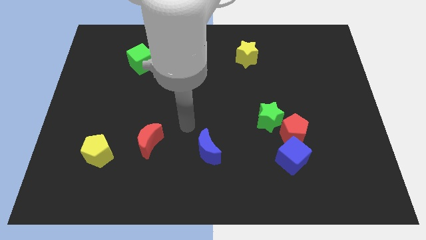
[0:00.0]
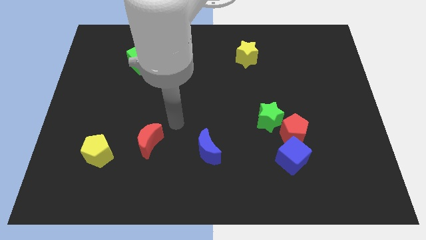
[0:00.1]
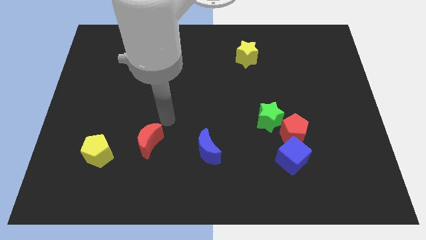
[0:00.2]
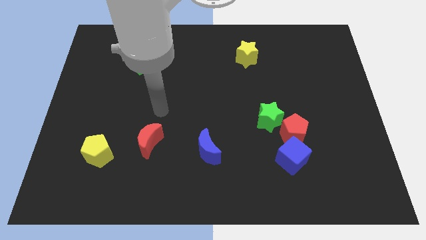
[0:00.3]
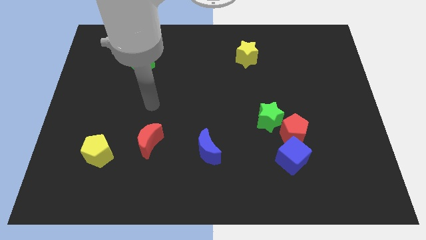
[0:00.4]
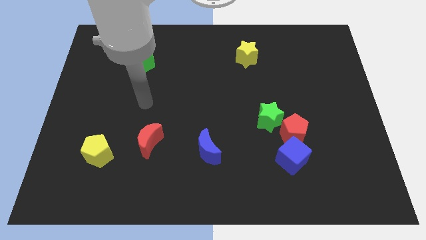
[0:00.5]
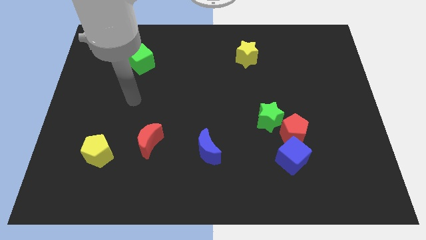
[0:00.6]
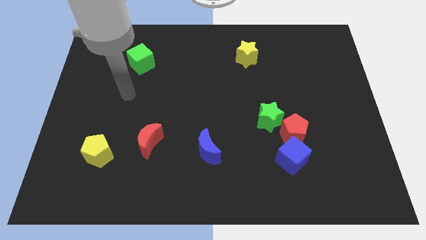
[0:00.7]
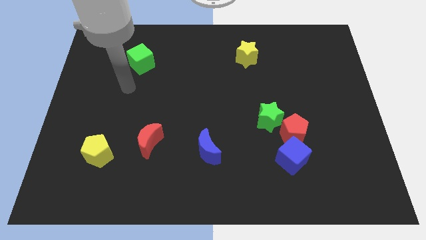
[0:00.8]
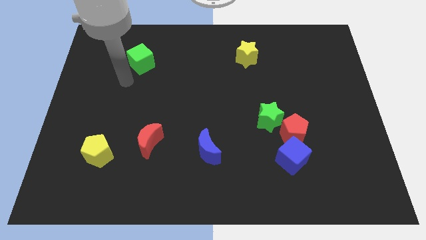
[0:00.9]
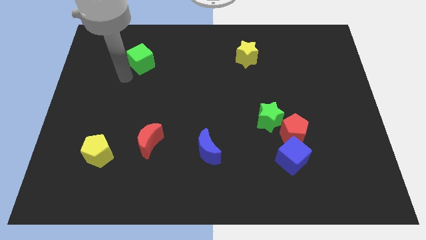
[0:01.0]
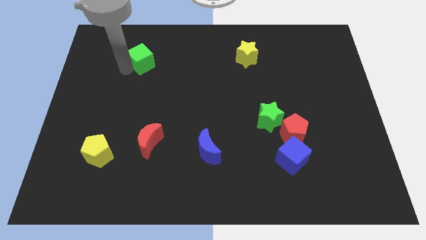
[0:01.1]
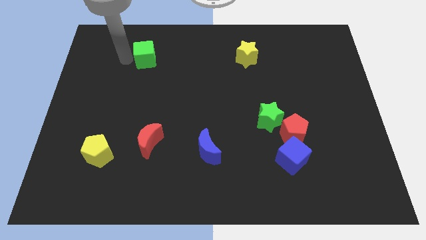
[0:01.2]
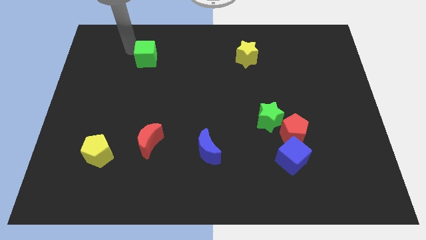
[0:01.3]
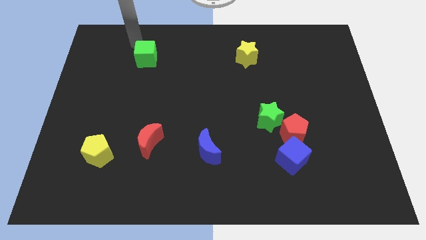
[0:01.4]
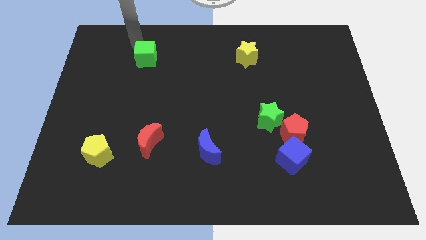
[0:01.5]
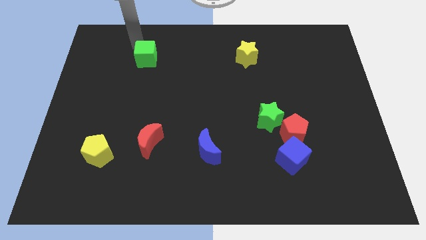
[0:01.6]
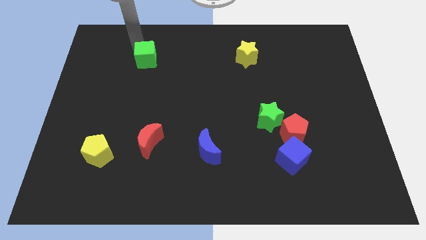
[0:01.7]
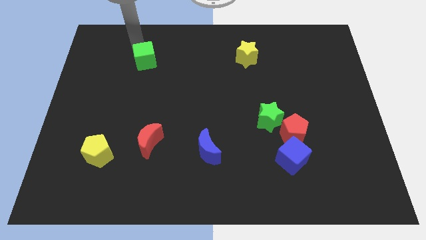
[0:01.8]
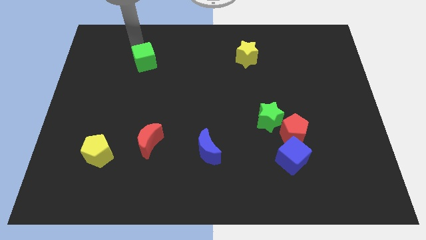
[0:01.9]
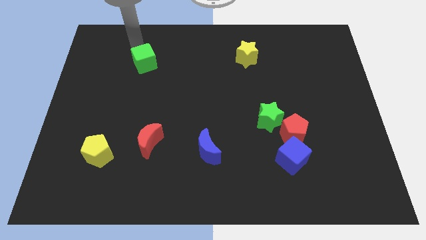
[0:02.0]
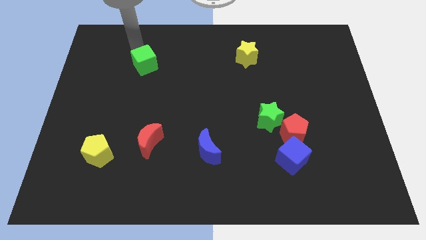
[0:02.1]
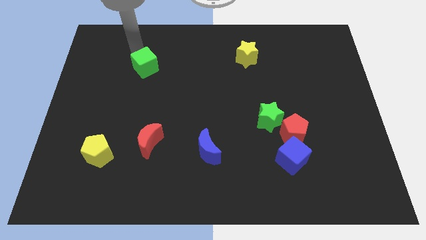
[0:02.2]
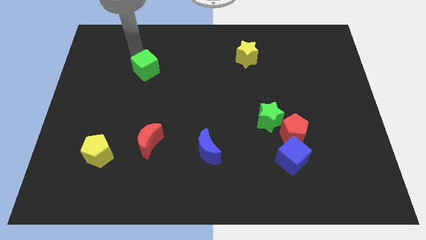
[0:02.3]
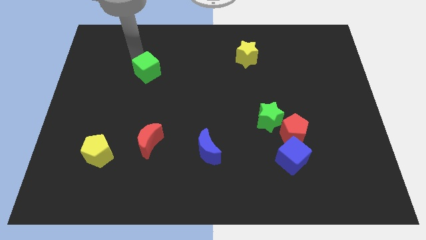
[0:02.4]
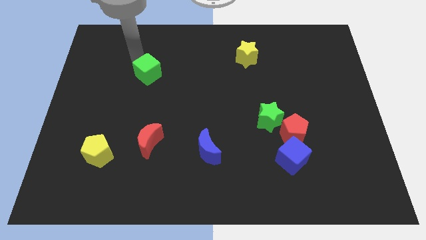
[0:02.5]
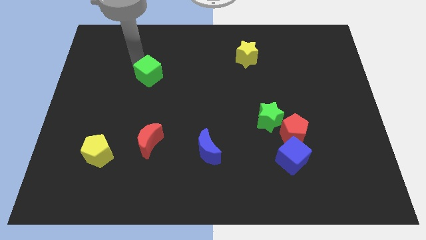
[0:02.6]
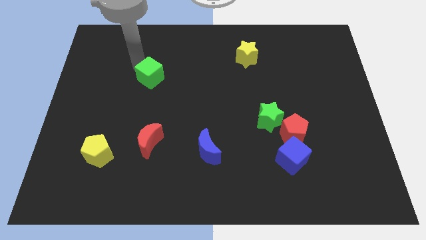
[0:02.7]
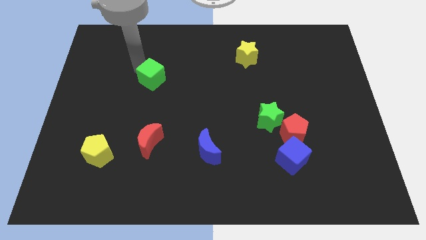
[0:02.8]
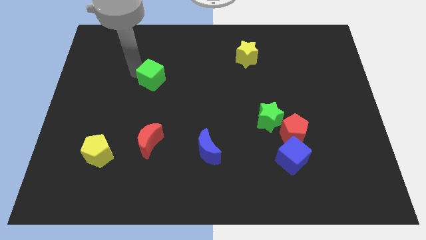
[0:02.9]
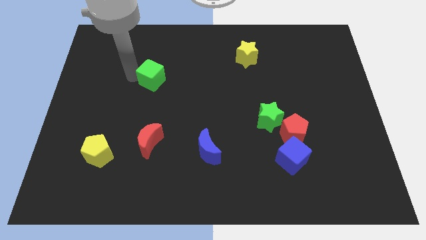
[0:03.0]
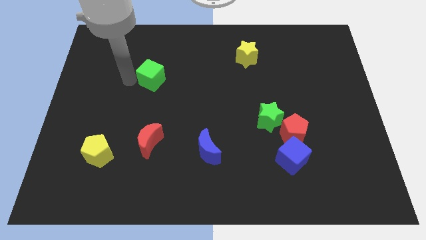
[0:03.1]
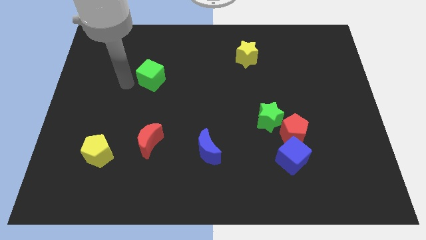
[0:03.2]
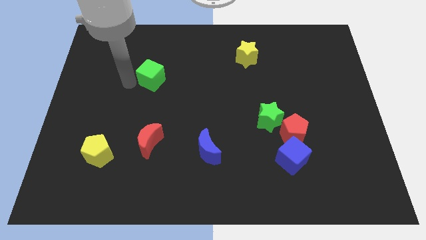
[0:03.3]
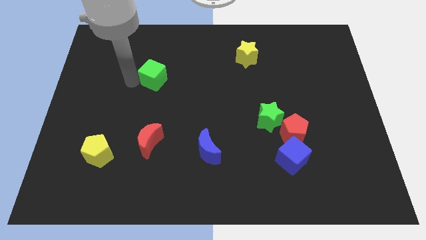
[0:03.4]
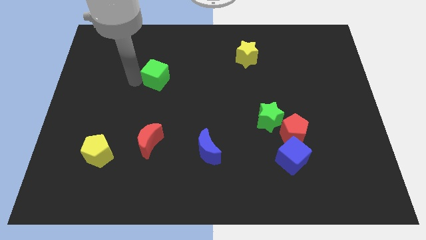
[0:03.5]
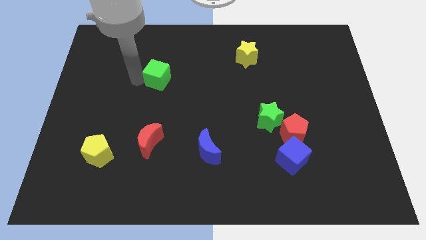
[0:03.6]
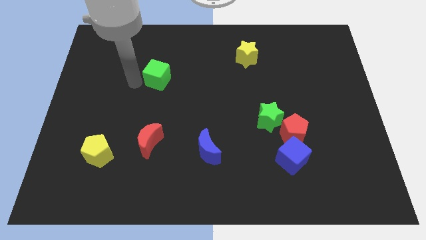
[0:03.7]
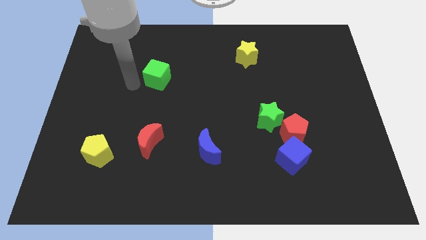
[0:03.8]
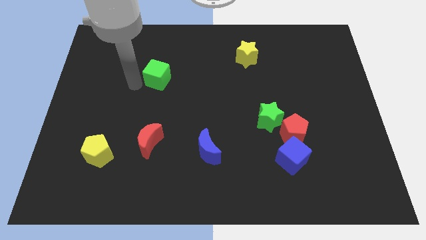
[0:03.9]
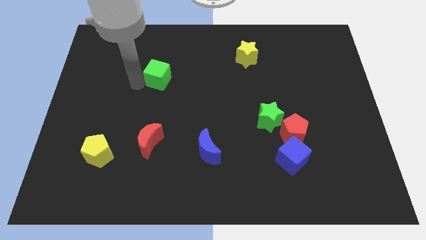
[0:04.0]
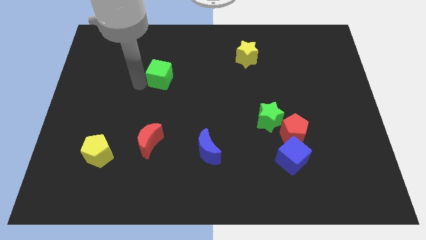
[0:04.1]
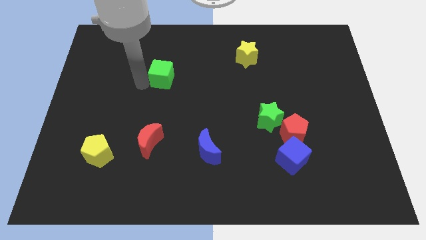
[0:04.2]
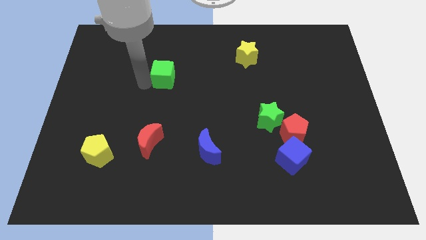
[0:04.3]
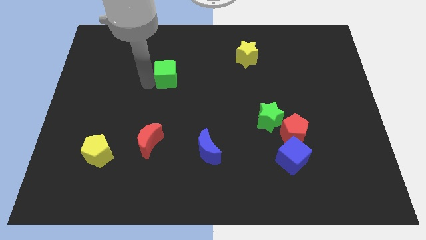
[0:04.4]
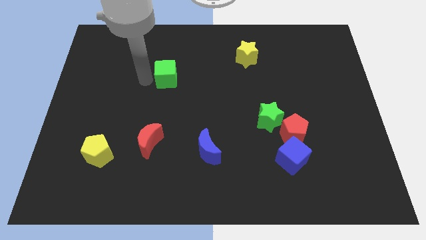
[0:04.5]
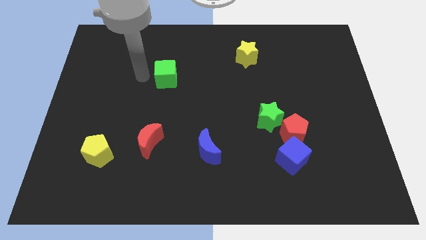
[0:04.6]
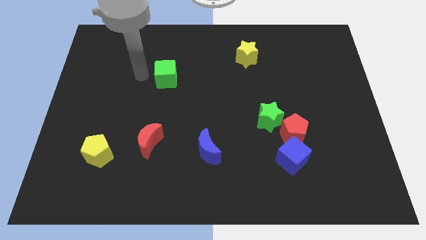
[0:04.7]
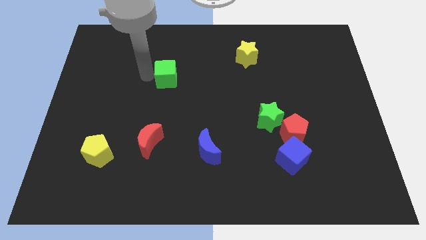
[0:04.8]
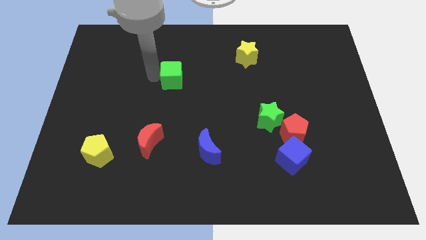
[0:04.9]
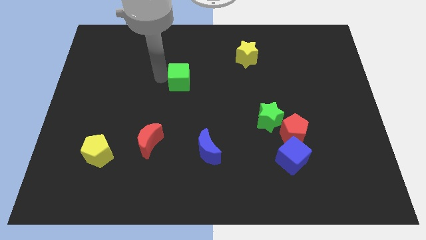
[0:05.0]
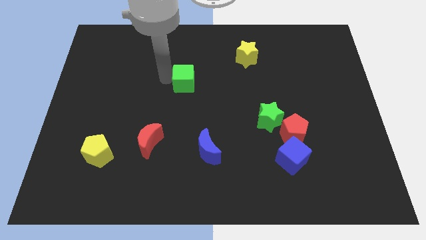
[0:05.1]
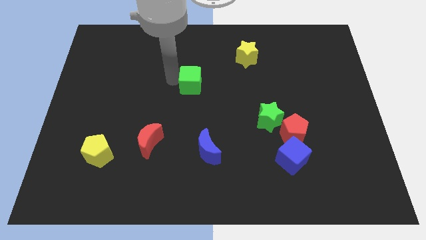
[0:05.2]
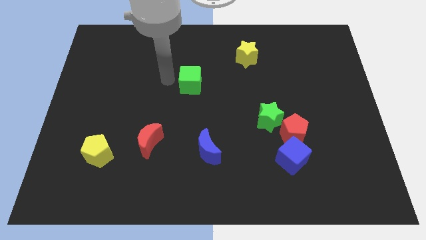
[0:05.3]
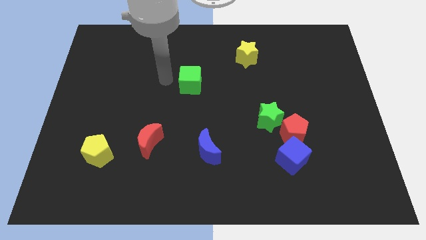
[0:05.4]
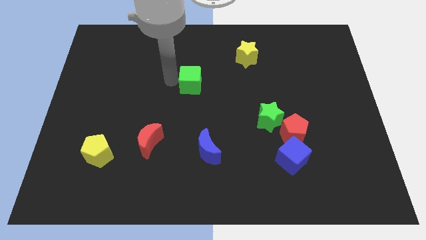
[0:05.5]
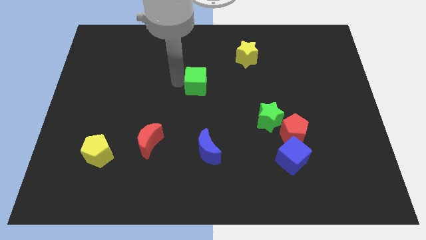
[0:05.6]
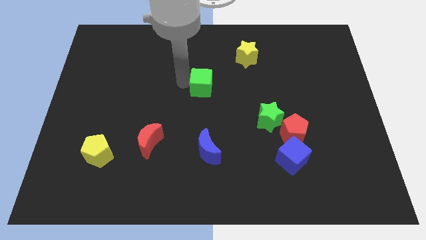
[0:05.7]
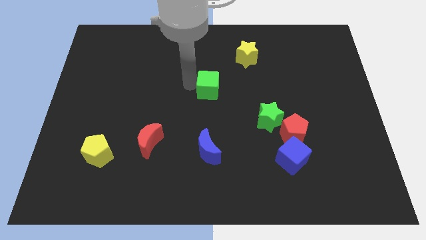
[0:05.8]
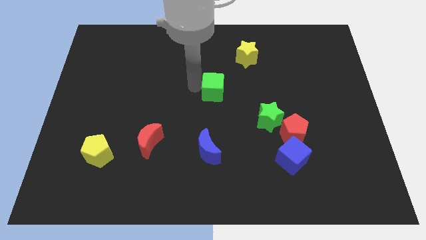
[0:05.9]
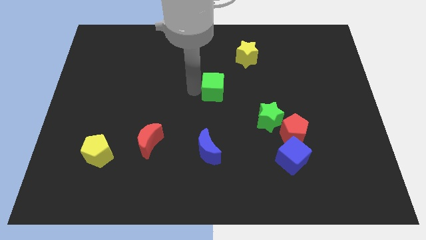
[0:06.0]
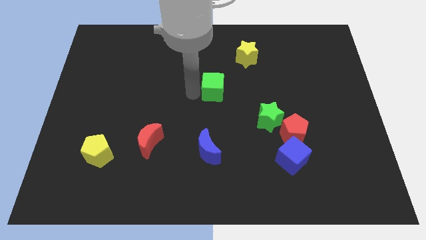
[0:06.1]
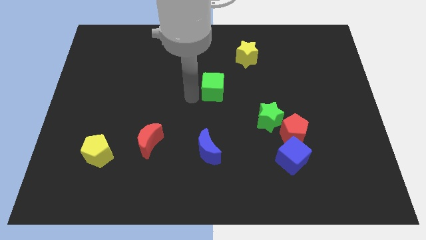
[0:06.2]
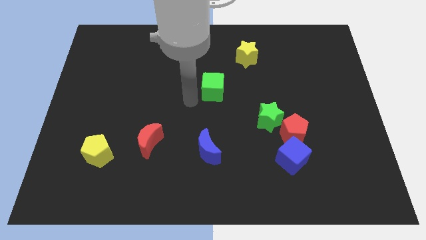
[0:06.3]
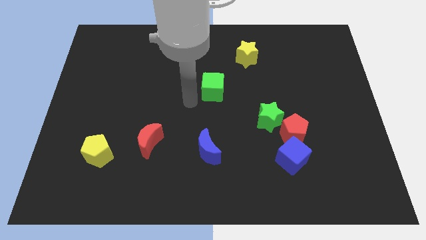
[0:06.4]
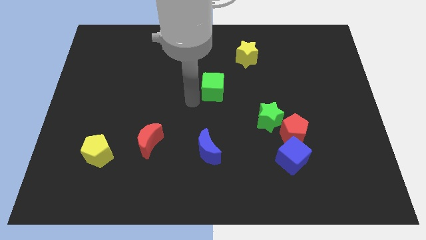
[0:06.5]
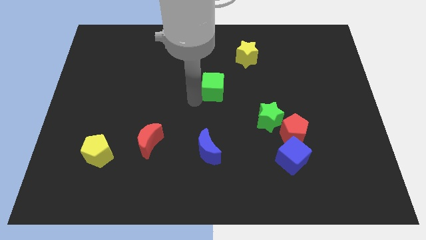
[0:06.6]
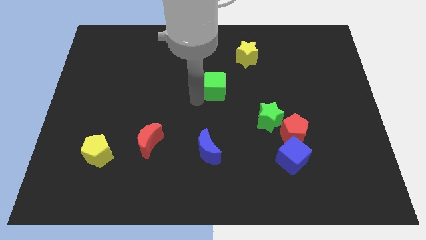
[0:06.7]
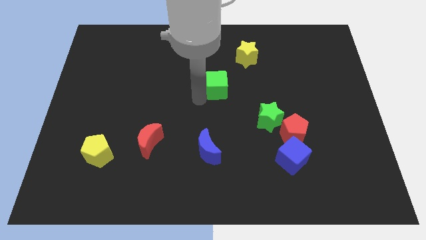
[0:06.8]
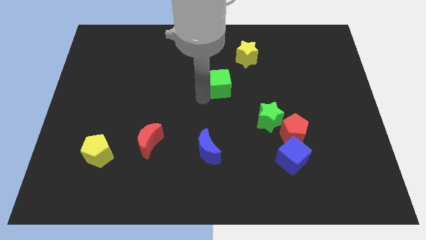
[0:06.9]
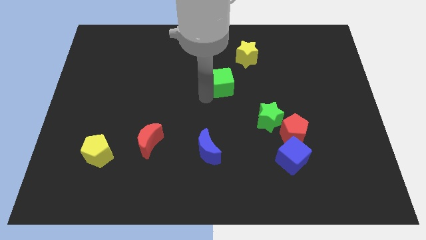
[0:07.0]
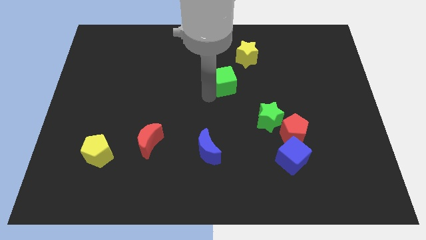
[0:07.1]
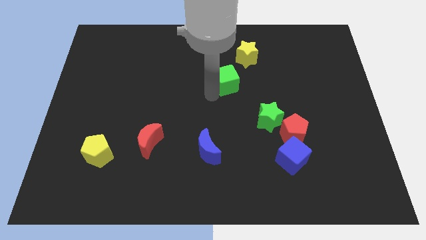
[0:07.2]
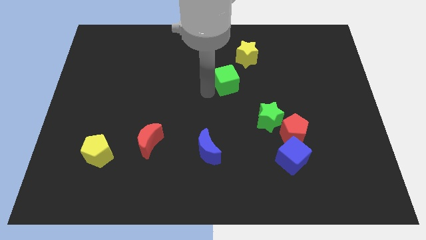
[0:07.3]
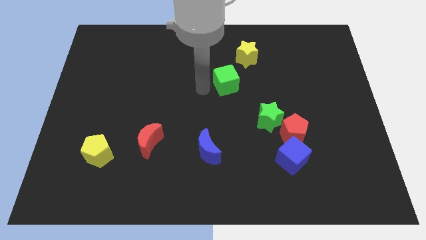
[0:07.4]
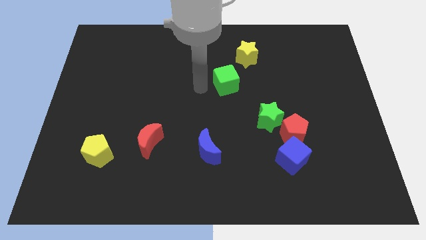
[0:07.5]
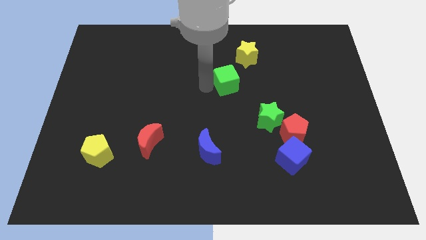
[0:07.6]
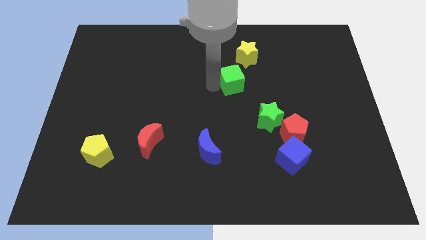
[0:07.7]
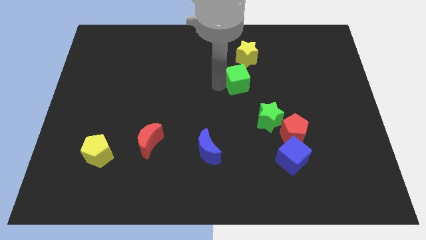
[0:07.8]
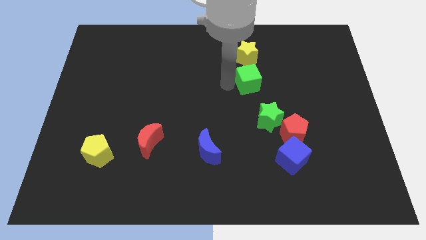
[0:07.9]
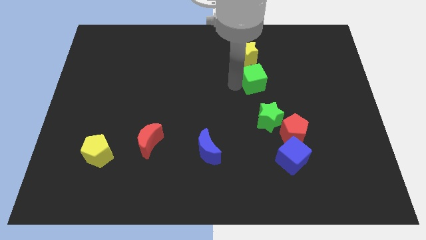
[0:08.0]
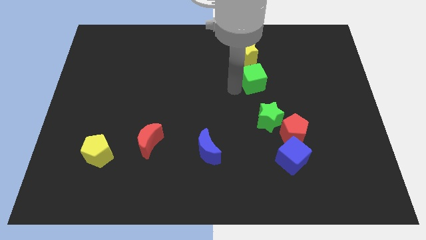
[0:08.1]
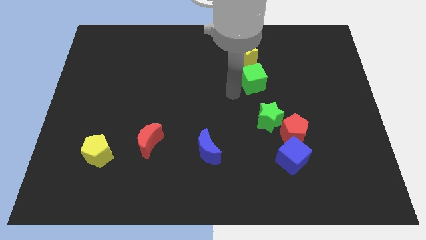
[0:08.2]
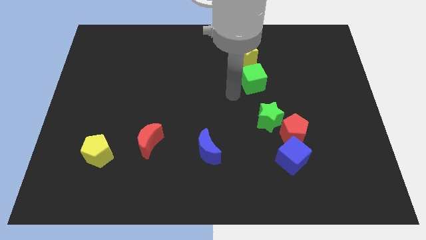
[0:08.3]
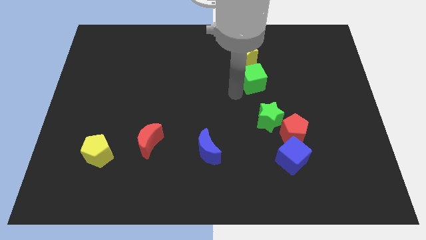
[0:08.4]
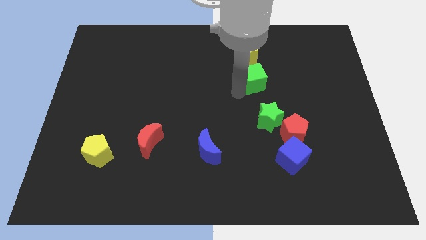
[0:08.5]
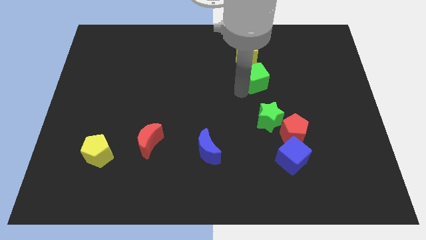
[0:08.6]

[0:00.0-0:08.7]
slide the green cube to the bottom right of the yellow star
